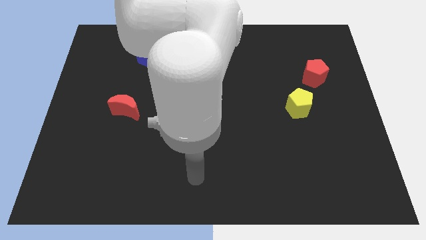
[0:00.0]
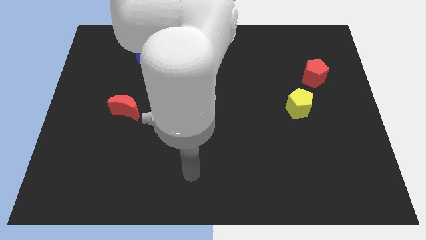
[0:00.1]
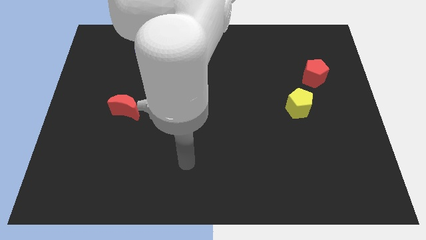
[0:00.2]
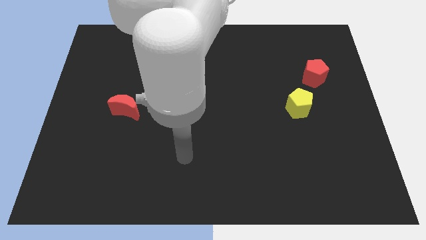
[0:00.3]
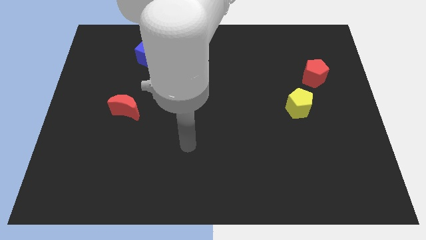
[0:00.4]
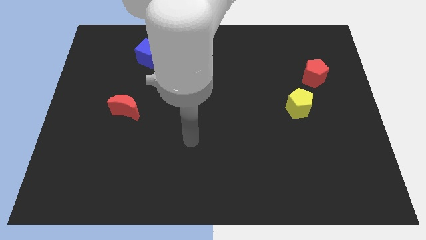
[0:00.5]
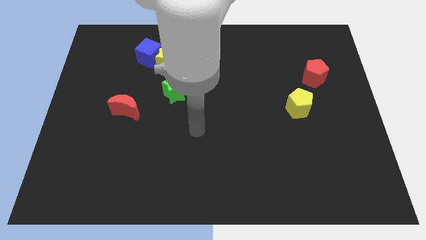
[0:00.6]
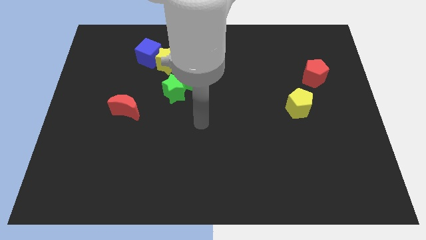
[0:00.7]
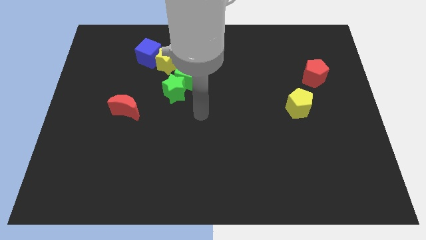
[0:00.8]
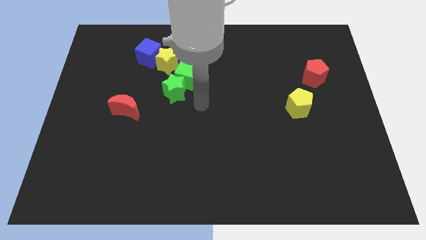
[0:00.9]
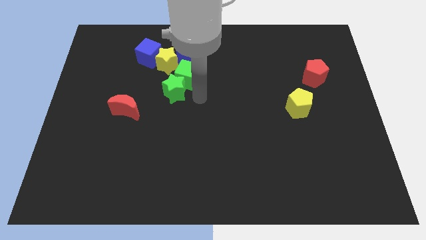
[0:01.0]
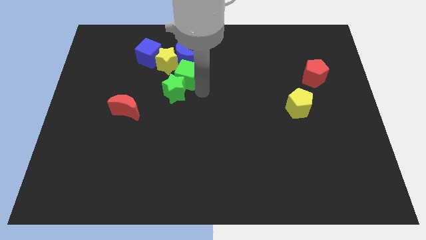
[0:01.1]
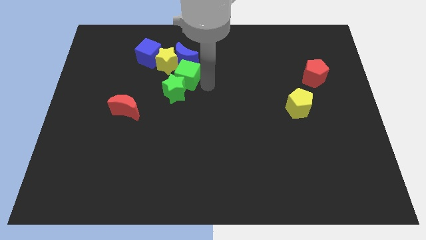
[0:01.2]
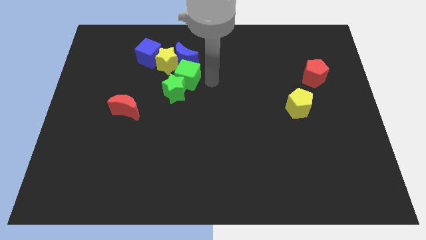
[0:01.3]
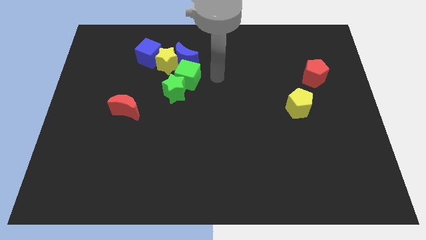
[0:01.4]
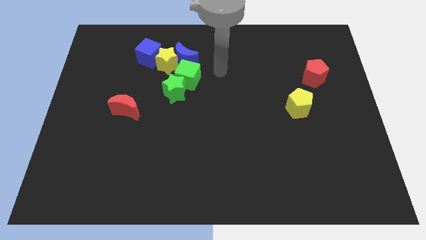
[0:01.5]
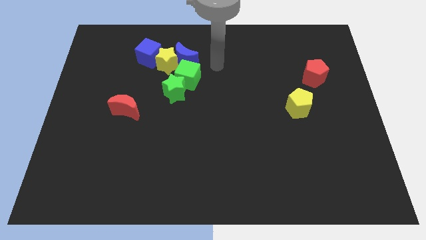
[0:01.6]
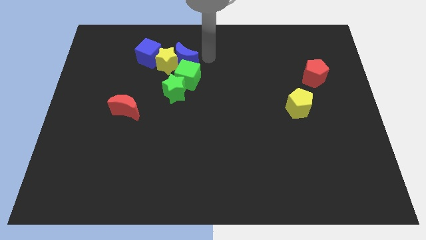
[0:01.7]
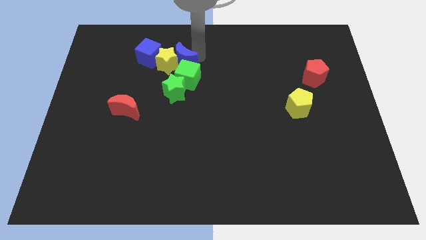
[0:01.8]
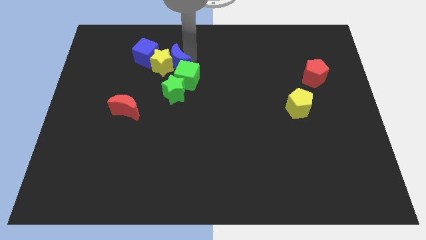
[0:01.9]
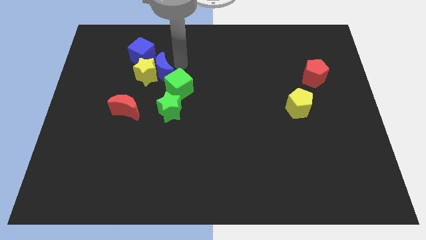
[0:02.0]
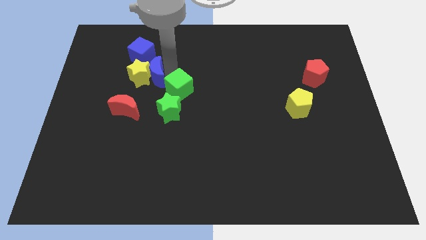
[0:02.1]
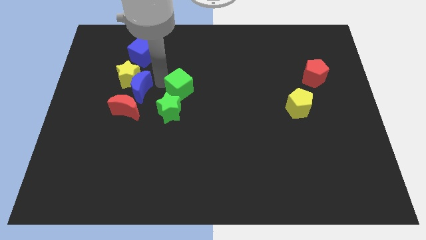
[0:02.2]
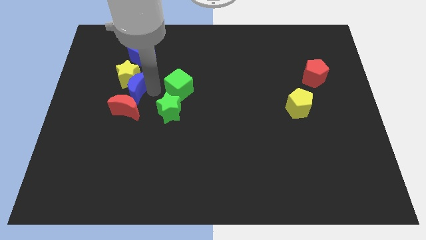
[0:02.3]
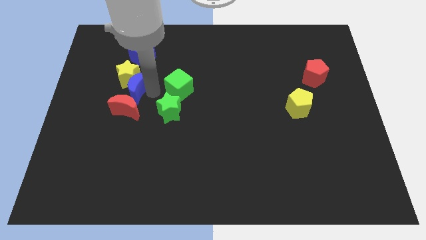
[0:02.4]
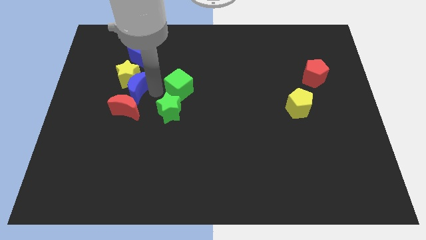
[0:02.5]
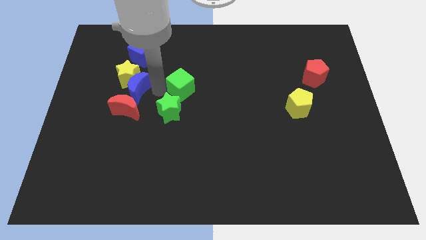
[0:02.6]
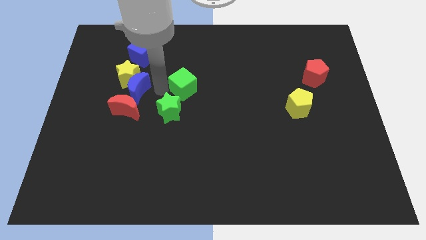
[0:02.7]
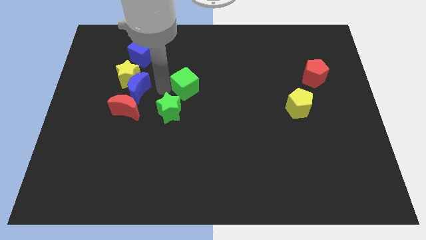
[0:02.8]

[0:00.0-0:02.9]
pull the green cube apart from the green star, blue moon, and yellow star

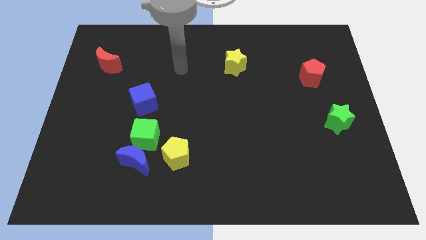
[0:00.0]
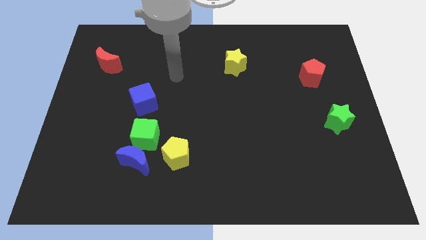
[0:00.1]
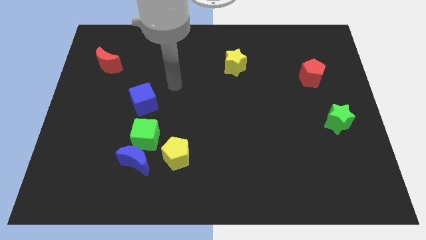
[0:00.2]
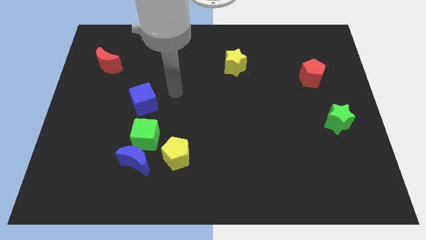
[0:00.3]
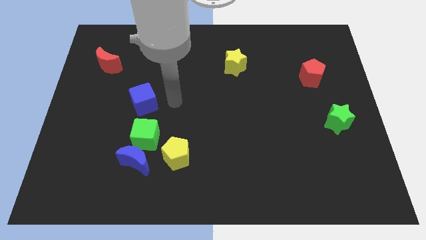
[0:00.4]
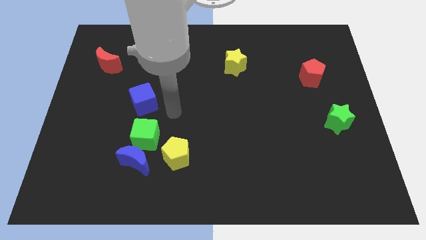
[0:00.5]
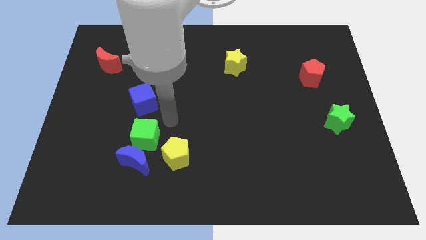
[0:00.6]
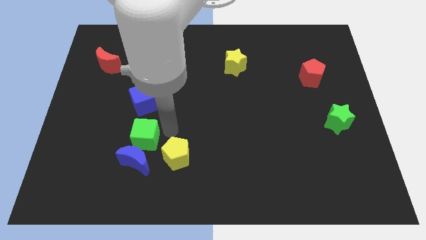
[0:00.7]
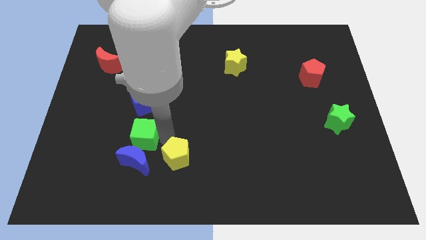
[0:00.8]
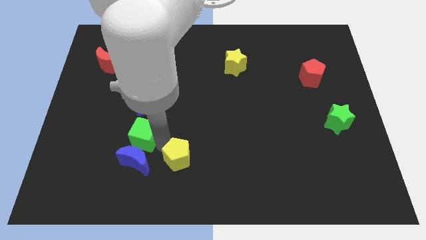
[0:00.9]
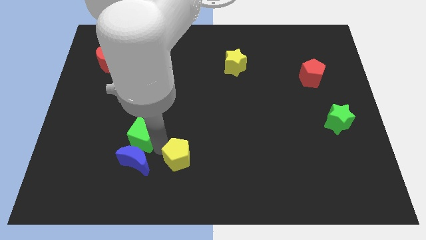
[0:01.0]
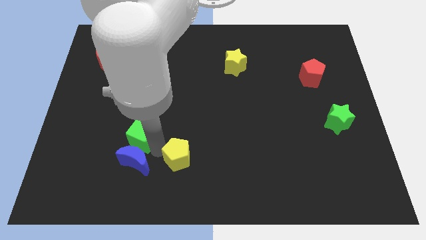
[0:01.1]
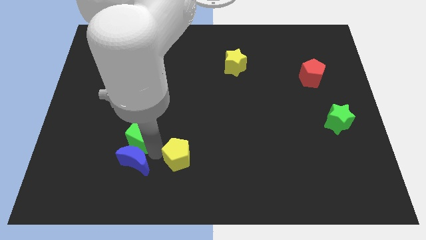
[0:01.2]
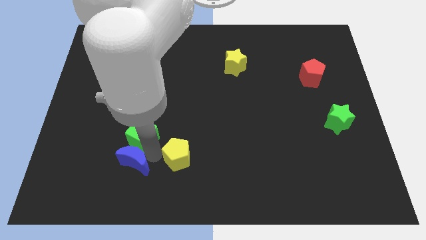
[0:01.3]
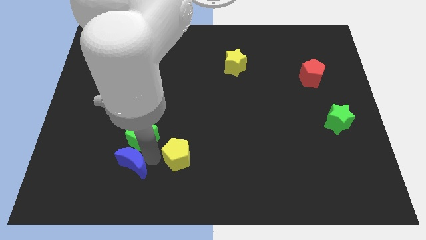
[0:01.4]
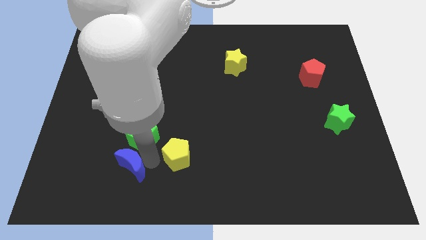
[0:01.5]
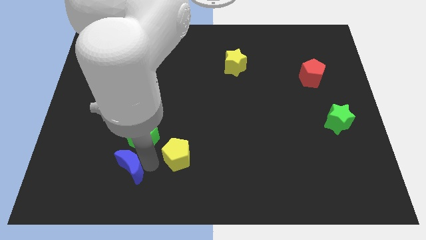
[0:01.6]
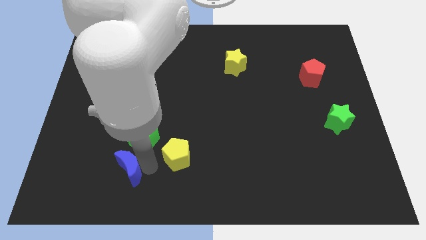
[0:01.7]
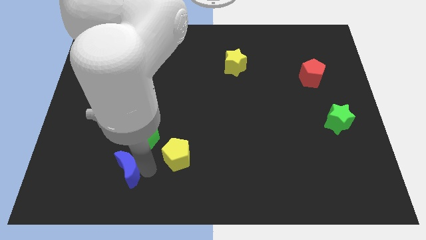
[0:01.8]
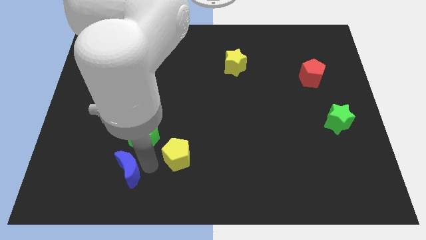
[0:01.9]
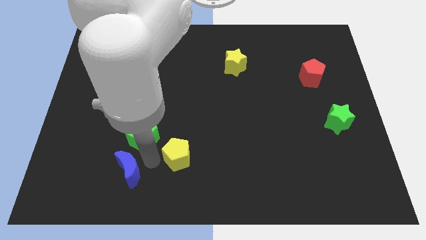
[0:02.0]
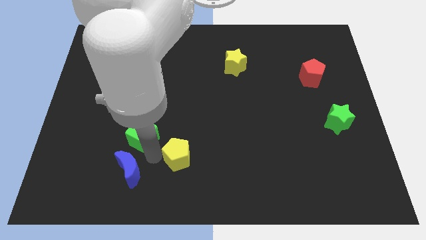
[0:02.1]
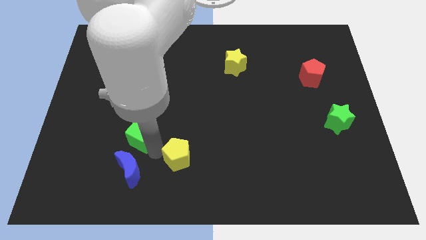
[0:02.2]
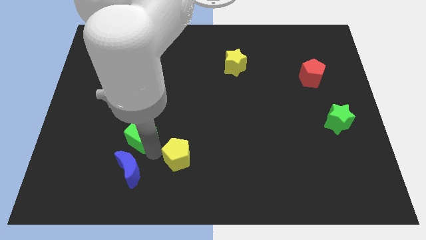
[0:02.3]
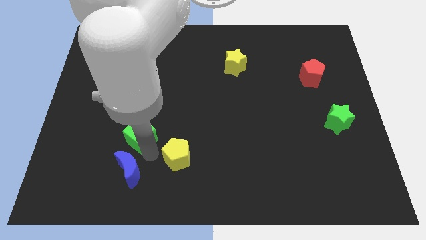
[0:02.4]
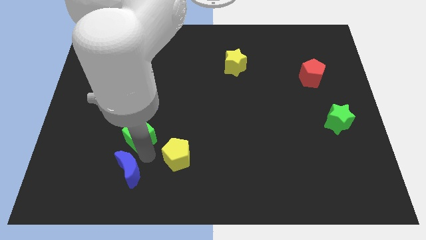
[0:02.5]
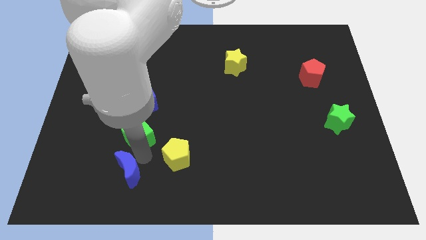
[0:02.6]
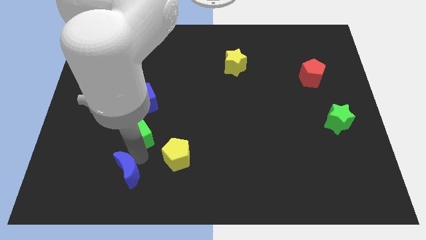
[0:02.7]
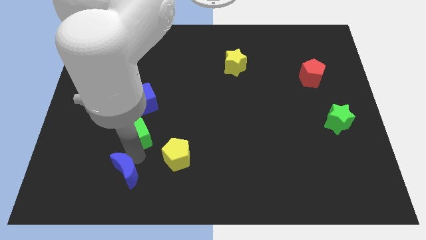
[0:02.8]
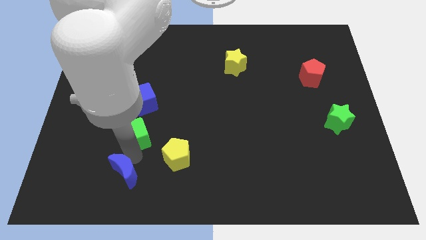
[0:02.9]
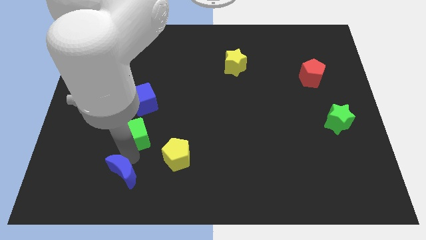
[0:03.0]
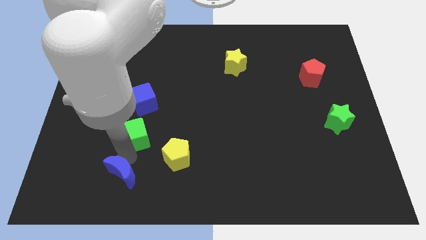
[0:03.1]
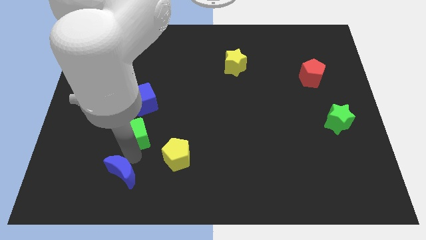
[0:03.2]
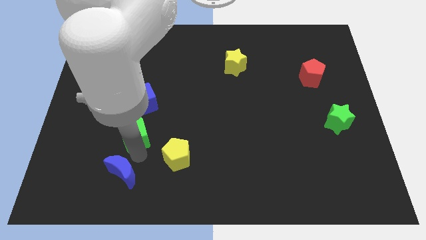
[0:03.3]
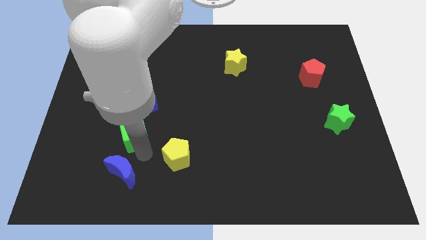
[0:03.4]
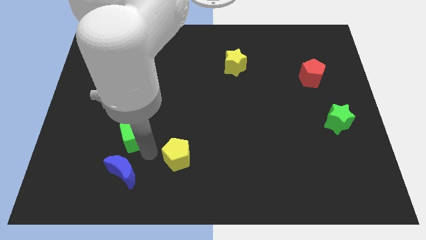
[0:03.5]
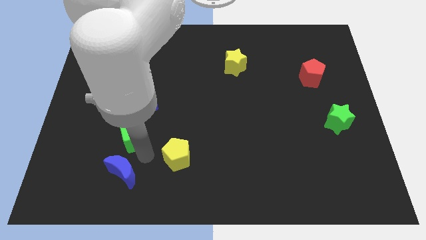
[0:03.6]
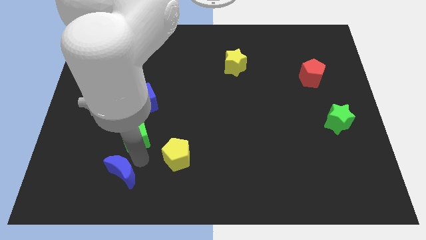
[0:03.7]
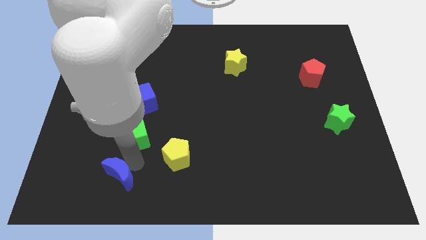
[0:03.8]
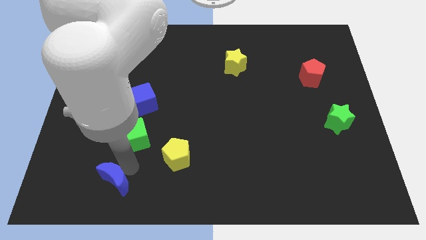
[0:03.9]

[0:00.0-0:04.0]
move the blue moon away from the green cube and yellow pentagon

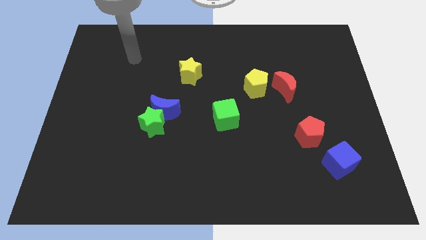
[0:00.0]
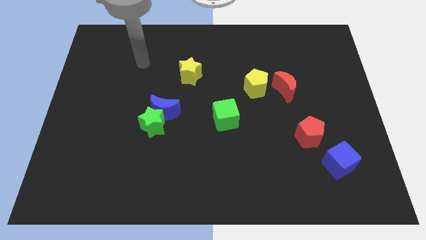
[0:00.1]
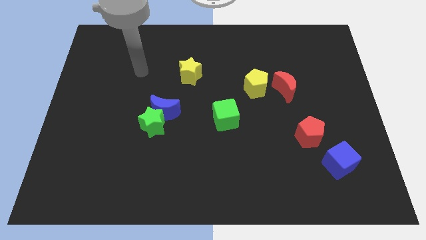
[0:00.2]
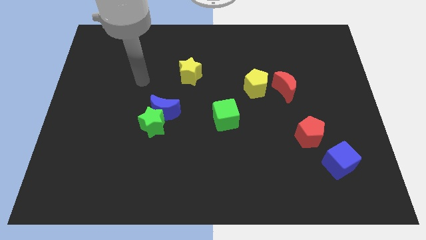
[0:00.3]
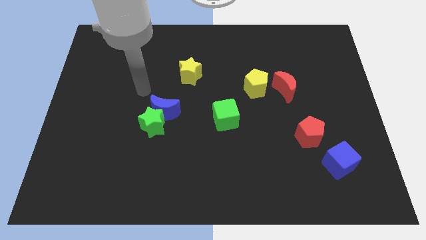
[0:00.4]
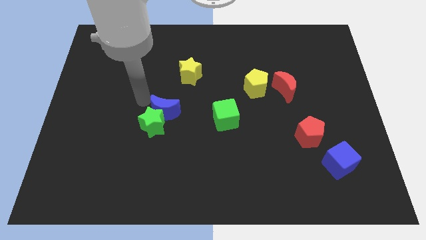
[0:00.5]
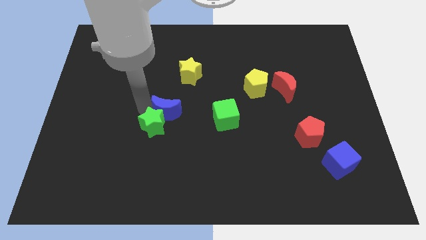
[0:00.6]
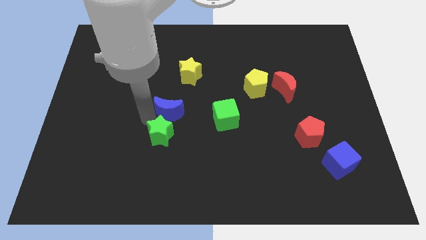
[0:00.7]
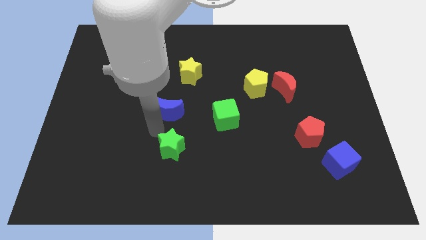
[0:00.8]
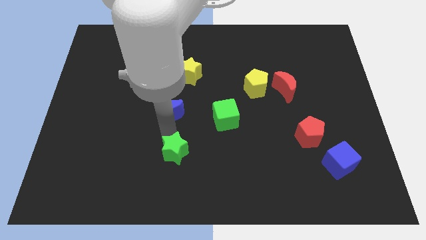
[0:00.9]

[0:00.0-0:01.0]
move the blue moon away from the green star

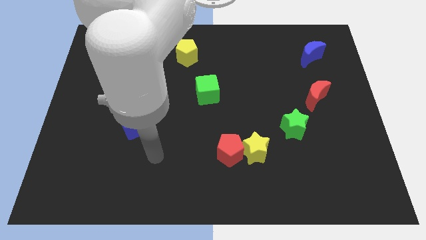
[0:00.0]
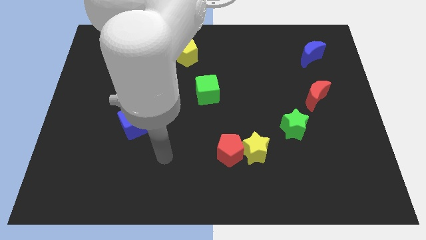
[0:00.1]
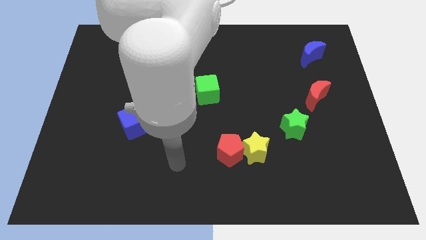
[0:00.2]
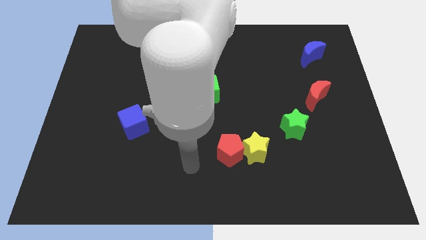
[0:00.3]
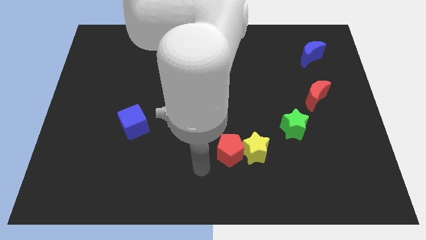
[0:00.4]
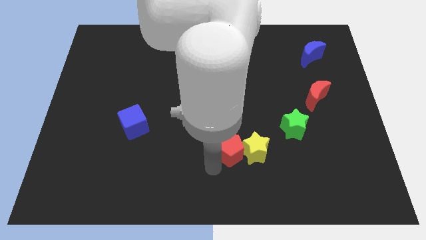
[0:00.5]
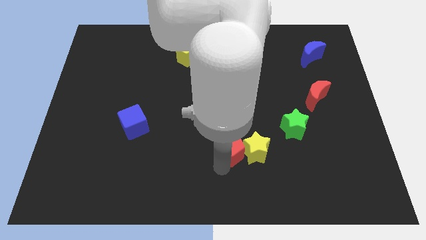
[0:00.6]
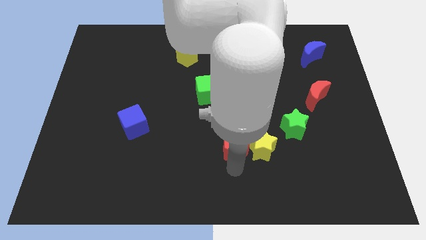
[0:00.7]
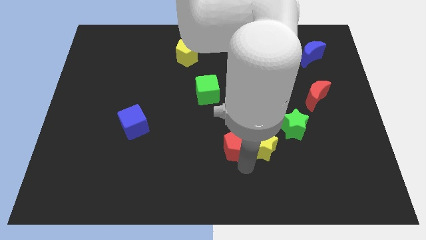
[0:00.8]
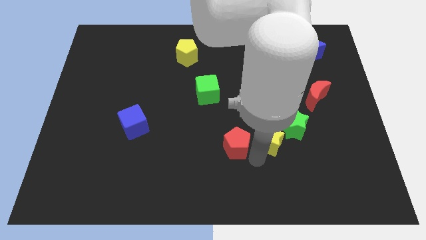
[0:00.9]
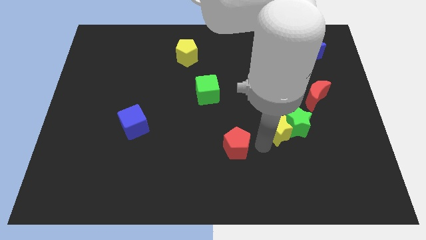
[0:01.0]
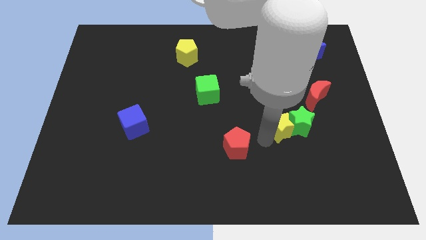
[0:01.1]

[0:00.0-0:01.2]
move the red pentagon away from the yellow star

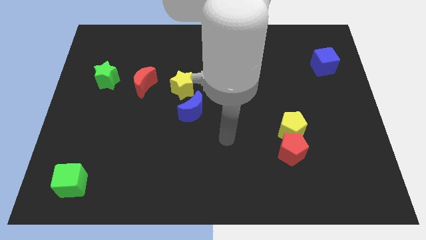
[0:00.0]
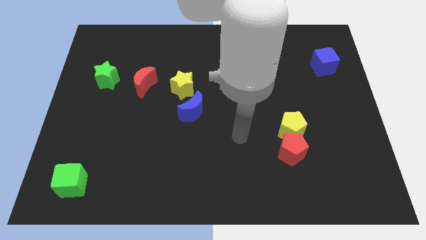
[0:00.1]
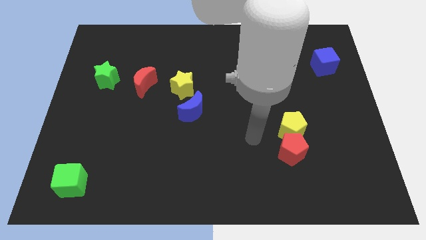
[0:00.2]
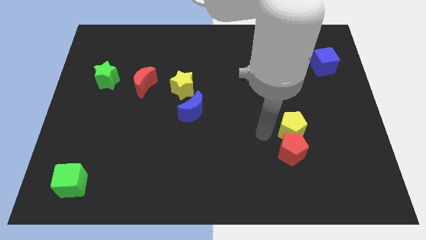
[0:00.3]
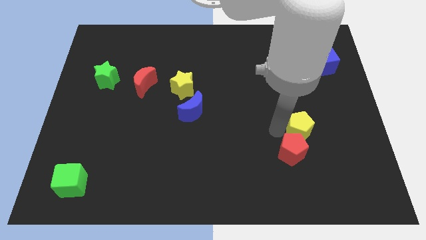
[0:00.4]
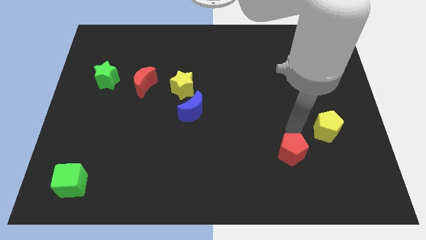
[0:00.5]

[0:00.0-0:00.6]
pull the red pentagon apart from the yellow pentagon
